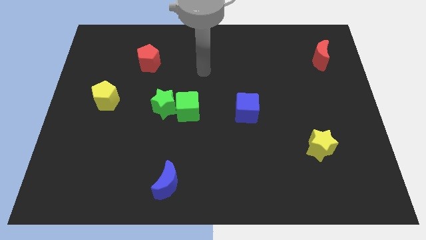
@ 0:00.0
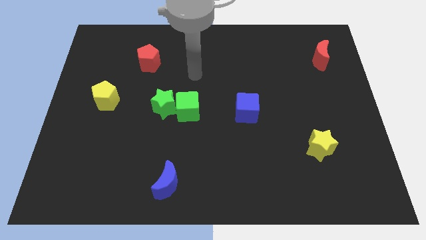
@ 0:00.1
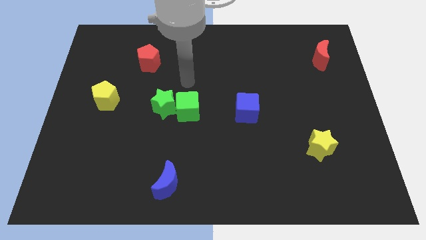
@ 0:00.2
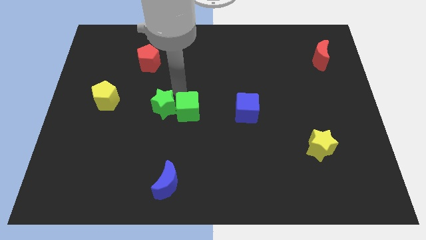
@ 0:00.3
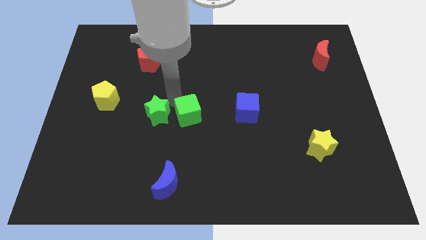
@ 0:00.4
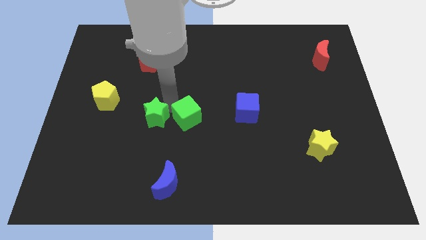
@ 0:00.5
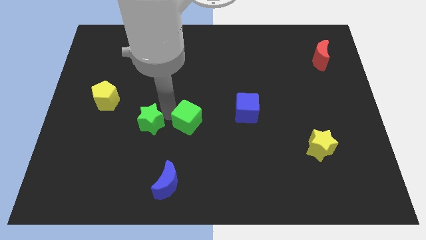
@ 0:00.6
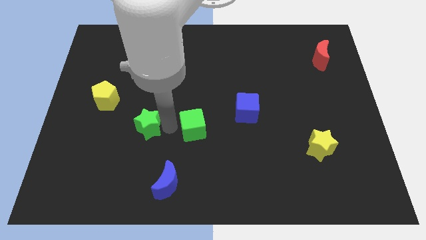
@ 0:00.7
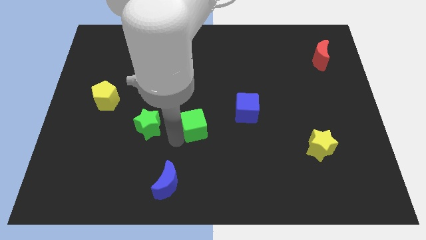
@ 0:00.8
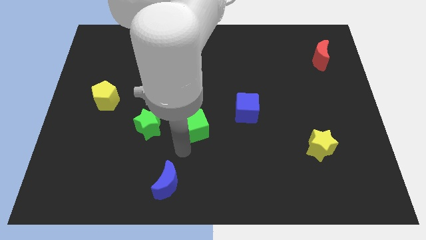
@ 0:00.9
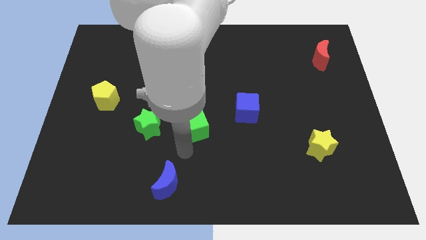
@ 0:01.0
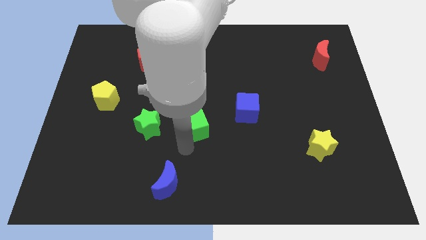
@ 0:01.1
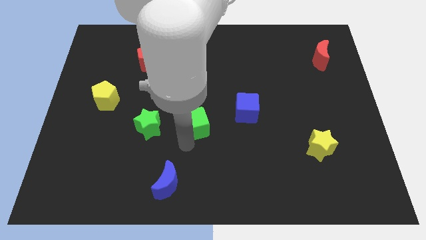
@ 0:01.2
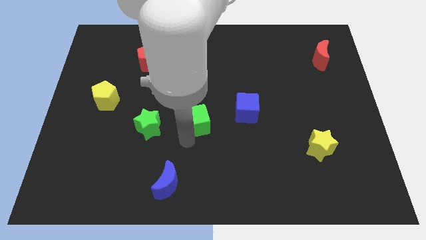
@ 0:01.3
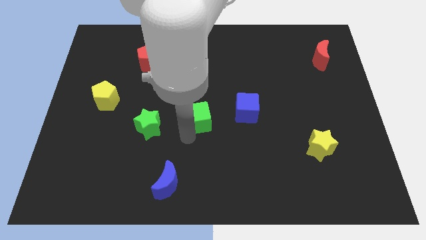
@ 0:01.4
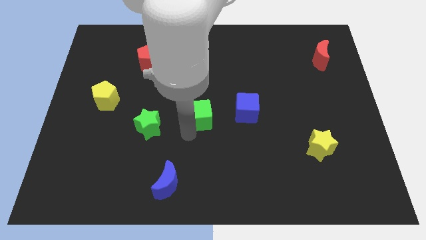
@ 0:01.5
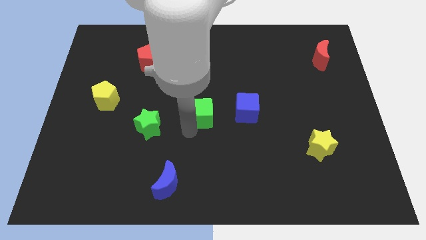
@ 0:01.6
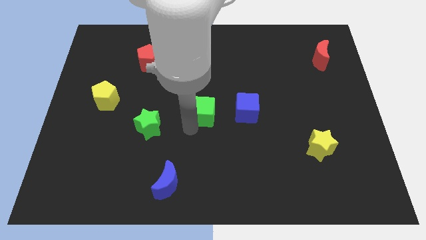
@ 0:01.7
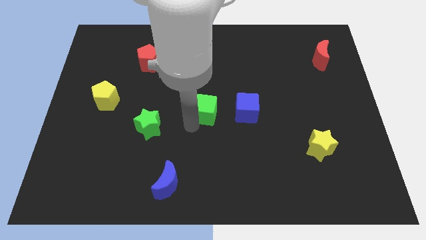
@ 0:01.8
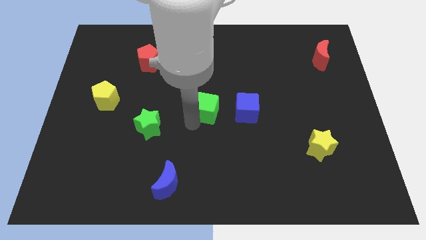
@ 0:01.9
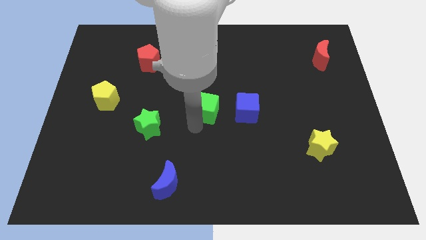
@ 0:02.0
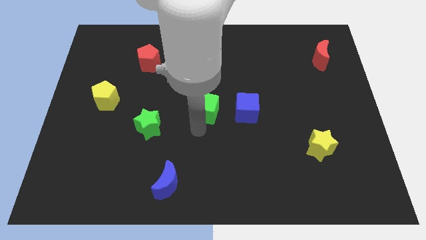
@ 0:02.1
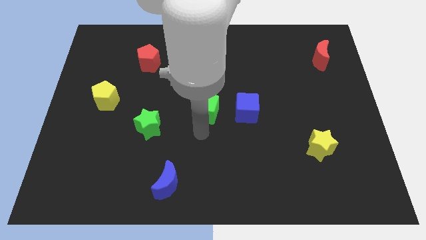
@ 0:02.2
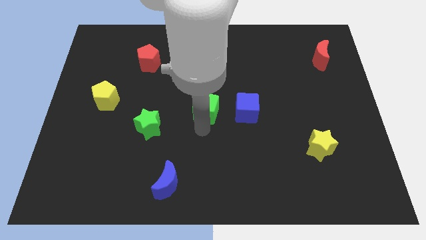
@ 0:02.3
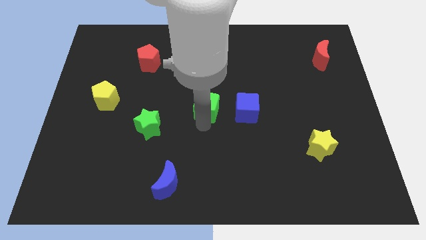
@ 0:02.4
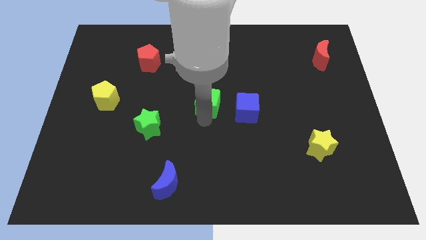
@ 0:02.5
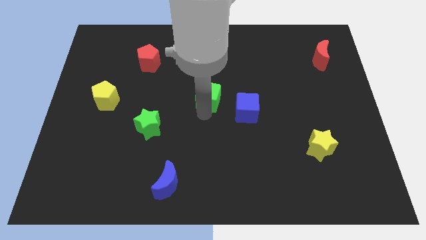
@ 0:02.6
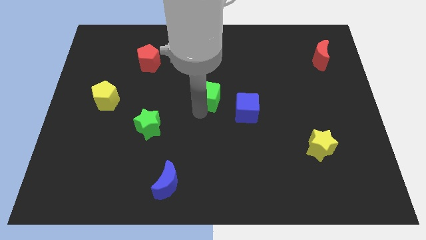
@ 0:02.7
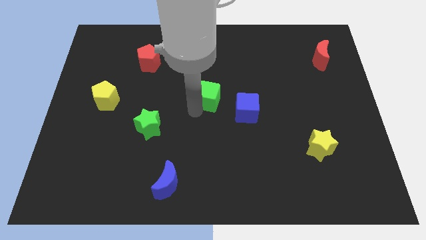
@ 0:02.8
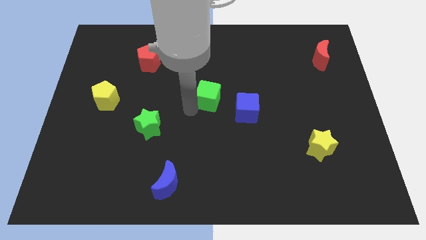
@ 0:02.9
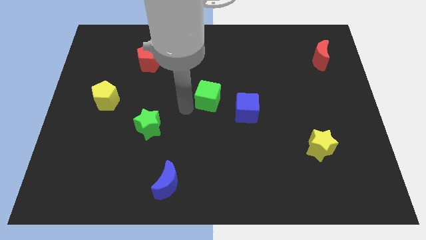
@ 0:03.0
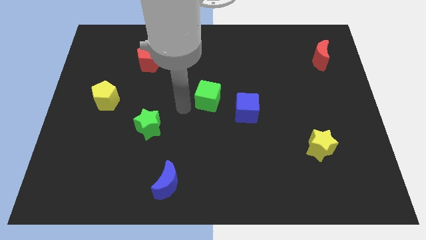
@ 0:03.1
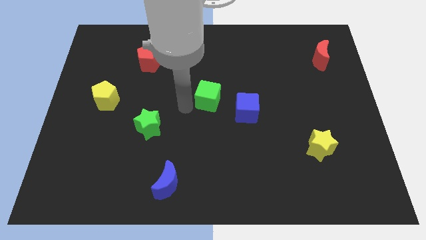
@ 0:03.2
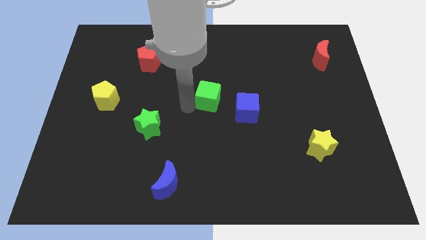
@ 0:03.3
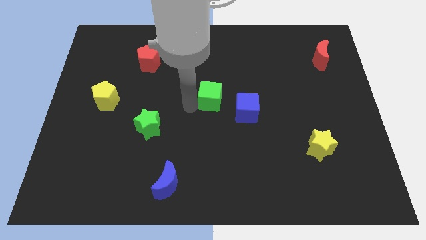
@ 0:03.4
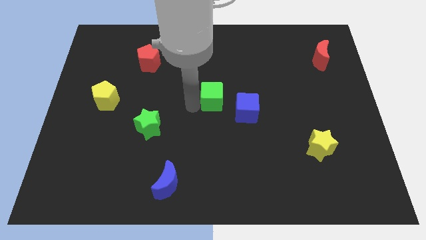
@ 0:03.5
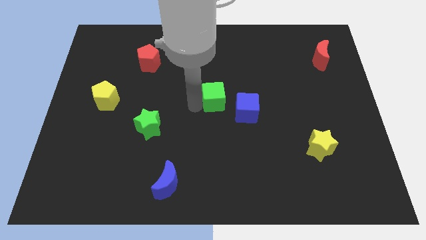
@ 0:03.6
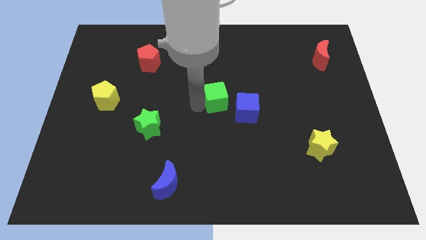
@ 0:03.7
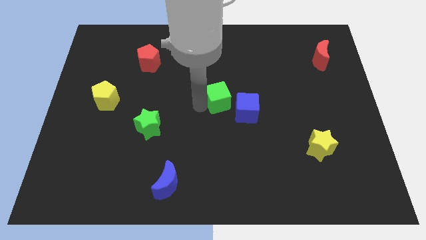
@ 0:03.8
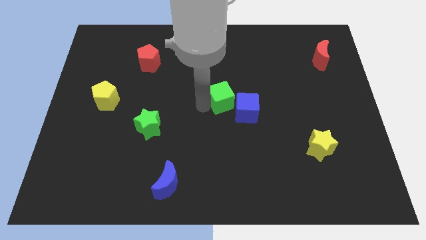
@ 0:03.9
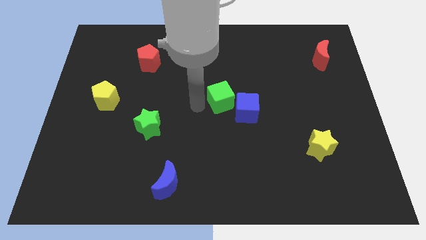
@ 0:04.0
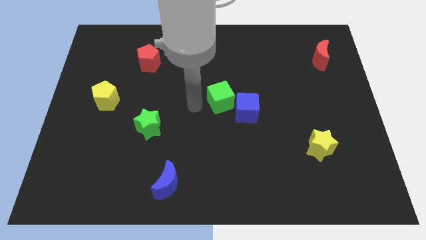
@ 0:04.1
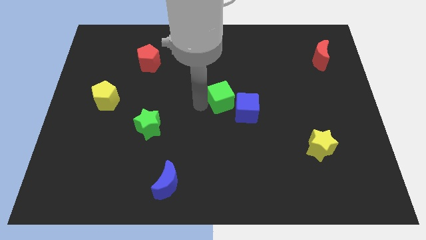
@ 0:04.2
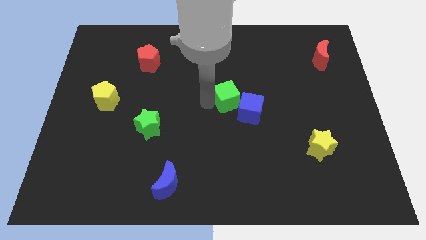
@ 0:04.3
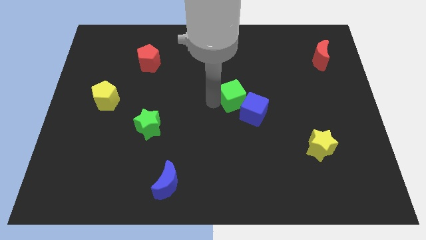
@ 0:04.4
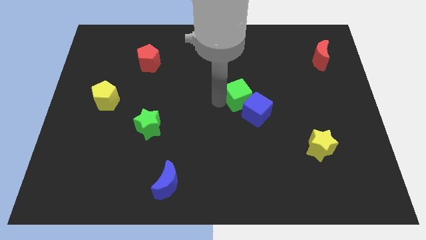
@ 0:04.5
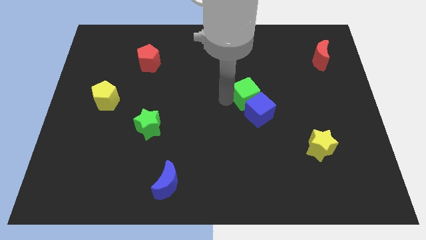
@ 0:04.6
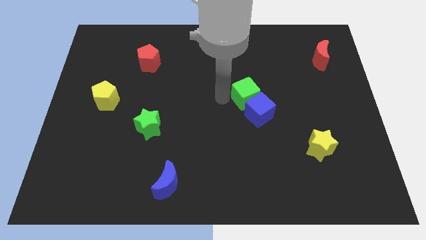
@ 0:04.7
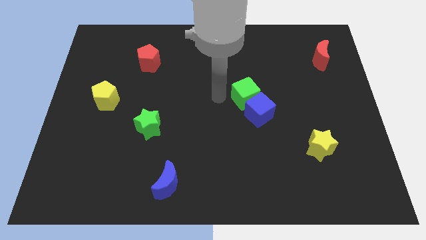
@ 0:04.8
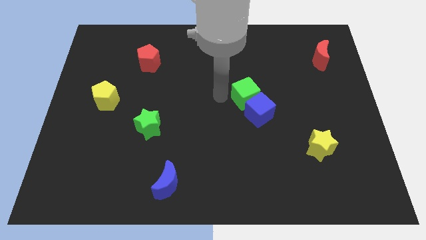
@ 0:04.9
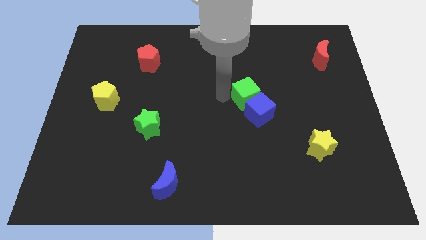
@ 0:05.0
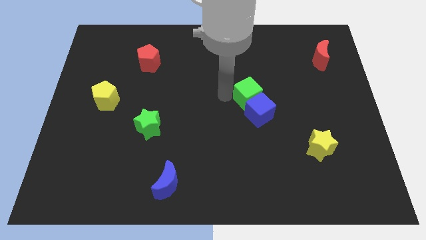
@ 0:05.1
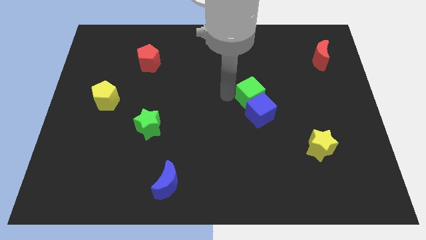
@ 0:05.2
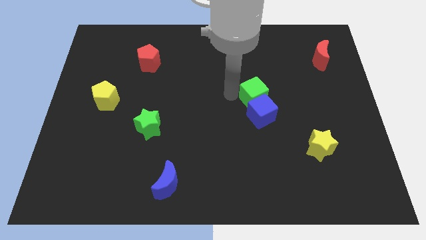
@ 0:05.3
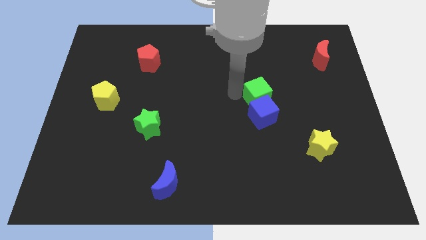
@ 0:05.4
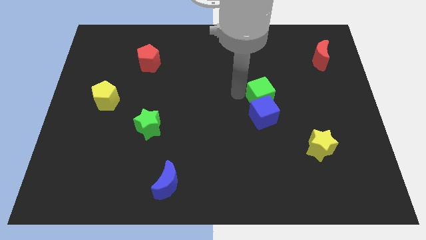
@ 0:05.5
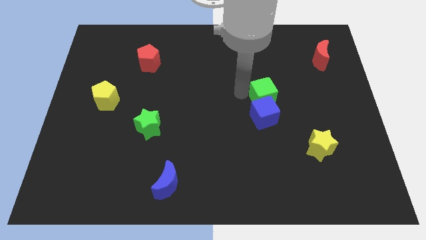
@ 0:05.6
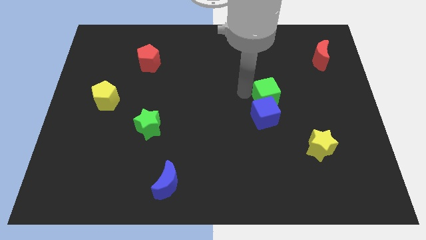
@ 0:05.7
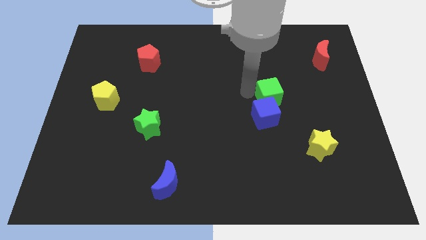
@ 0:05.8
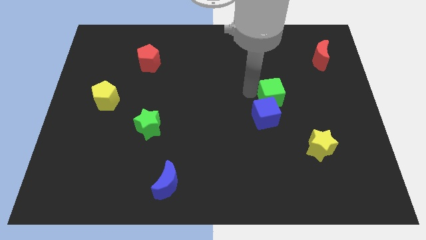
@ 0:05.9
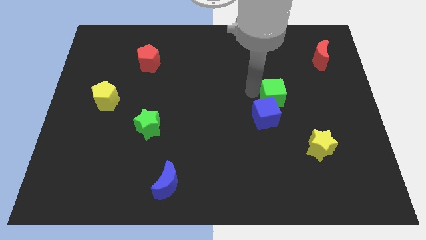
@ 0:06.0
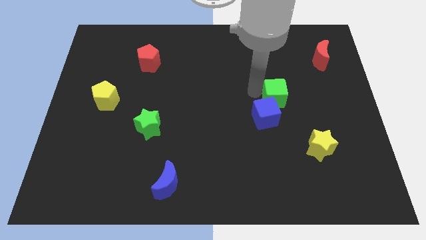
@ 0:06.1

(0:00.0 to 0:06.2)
push the green cube right

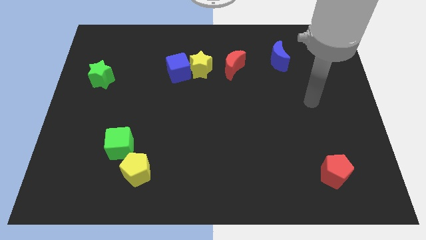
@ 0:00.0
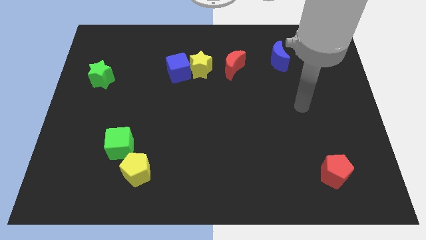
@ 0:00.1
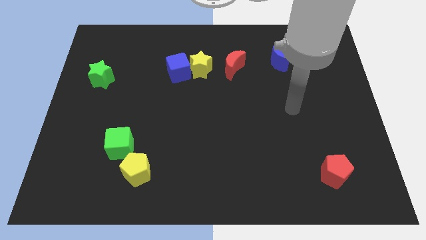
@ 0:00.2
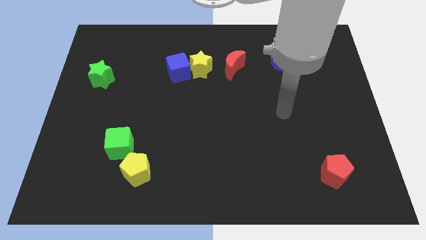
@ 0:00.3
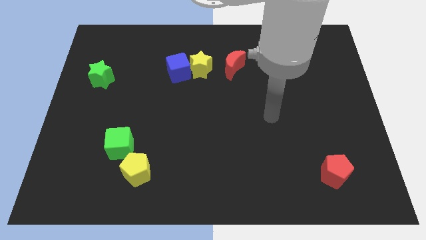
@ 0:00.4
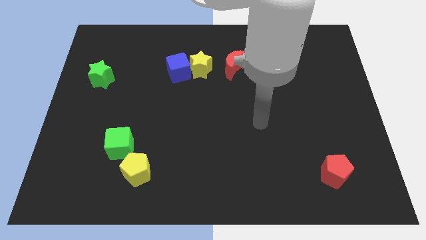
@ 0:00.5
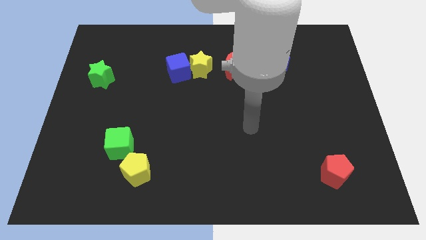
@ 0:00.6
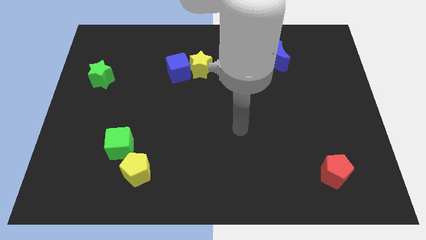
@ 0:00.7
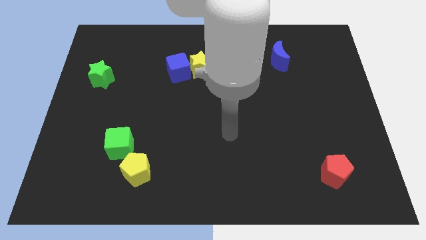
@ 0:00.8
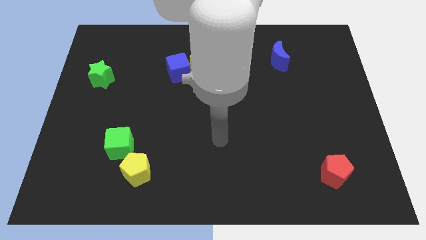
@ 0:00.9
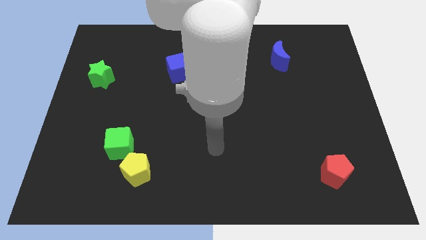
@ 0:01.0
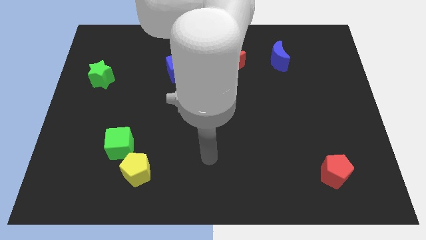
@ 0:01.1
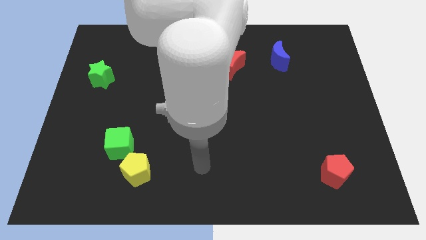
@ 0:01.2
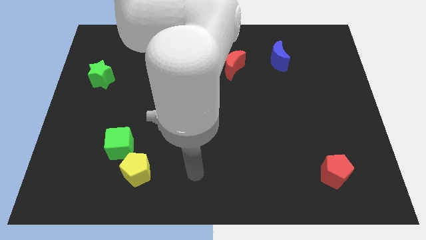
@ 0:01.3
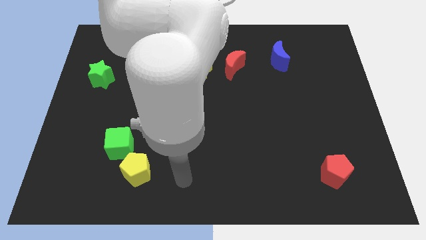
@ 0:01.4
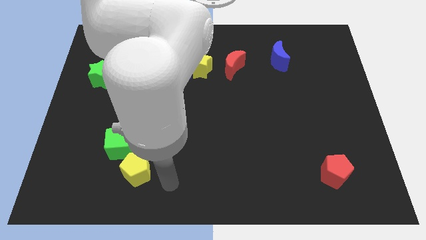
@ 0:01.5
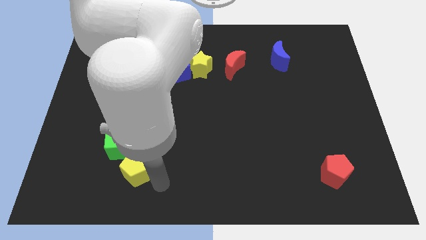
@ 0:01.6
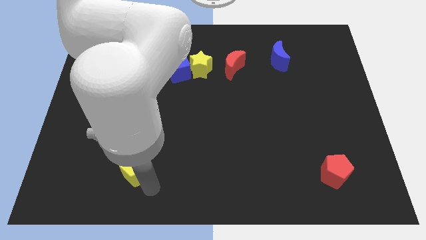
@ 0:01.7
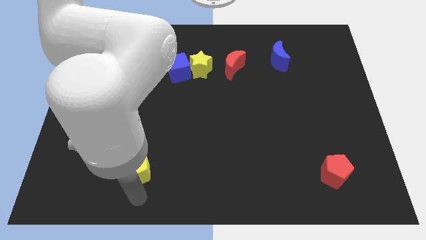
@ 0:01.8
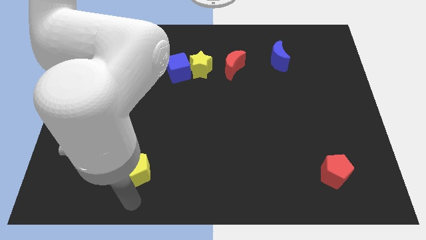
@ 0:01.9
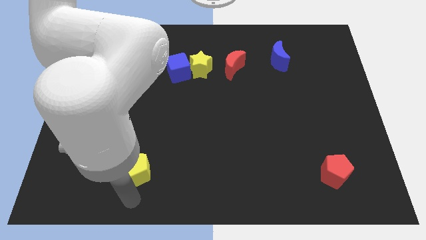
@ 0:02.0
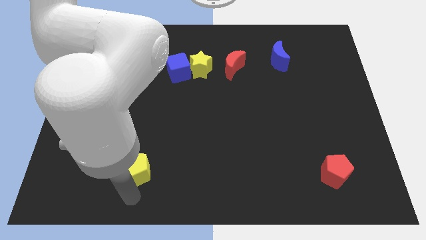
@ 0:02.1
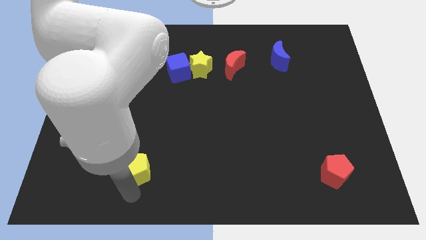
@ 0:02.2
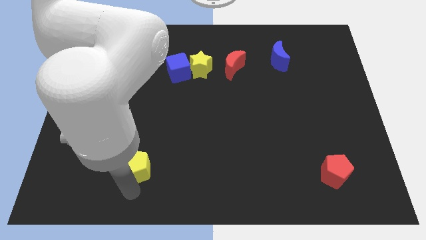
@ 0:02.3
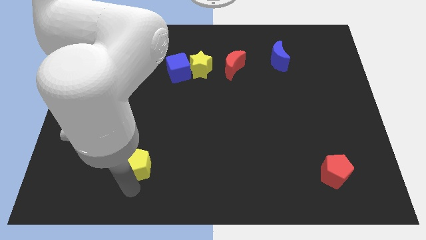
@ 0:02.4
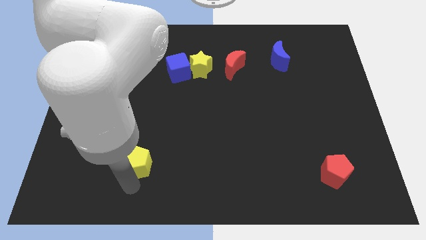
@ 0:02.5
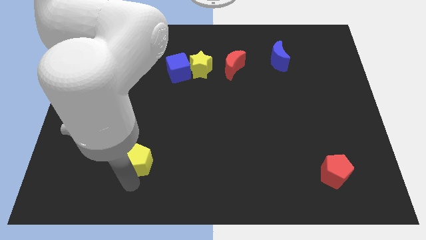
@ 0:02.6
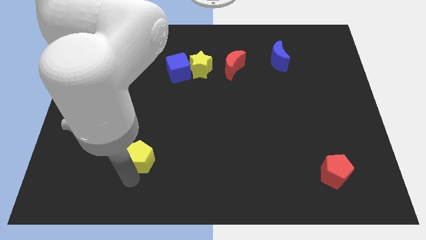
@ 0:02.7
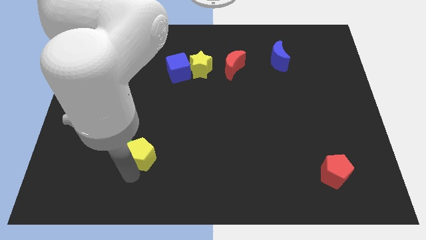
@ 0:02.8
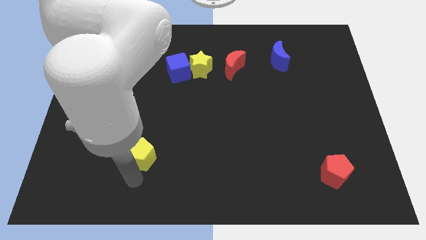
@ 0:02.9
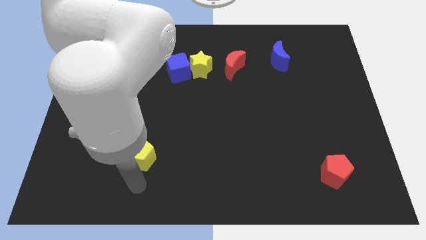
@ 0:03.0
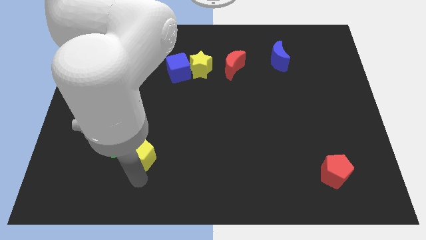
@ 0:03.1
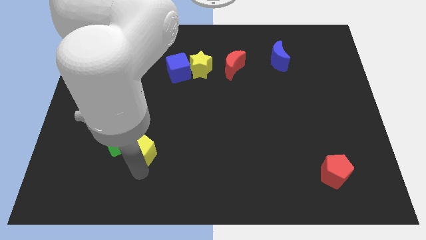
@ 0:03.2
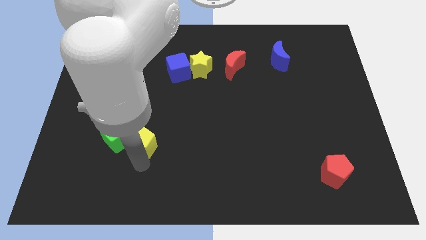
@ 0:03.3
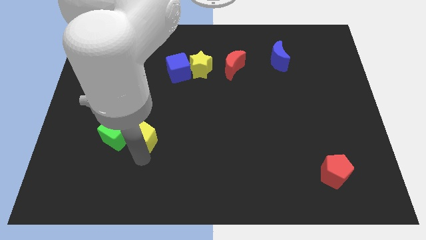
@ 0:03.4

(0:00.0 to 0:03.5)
move the yellow pentagon a bit up
